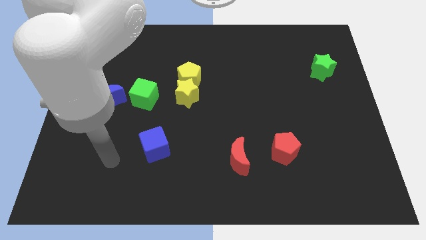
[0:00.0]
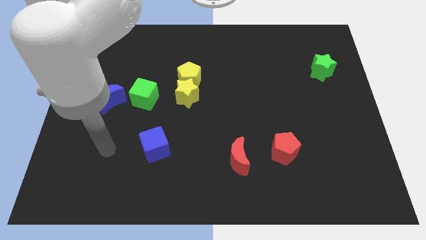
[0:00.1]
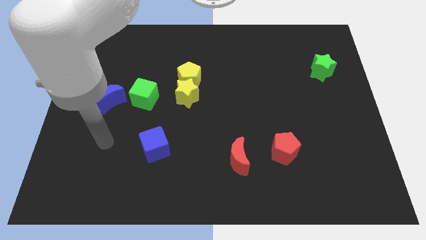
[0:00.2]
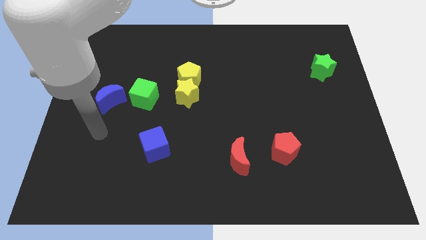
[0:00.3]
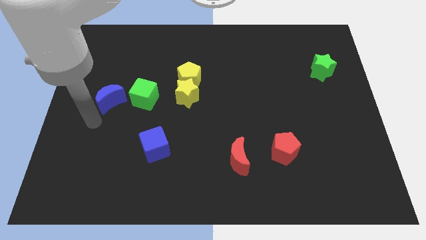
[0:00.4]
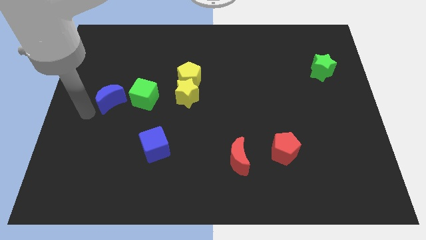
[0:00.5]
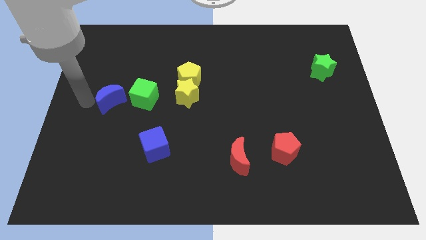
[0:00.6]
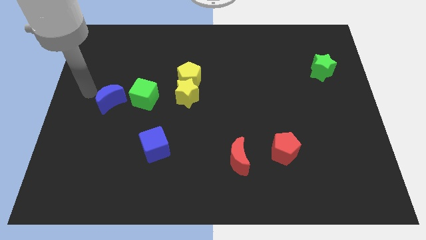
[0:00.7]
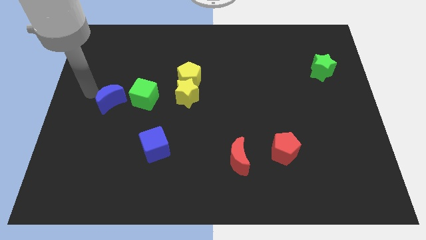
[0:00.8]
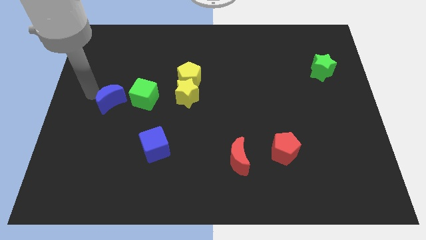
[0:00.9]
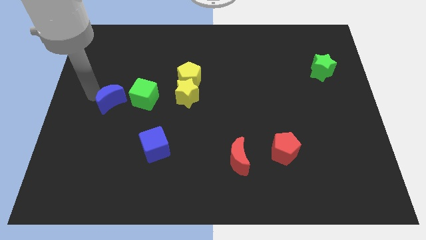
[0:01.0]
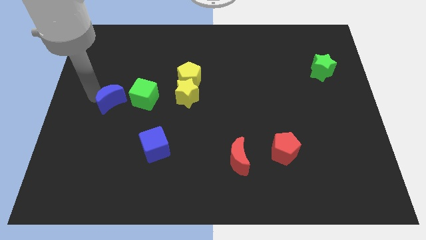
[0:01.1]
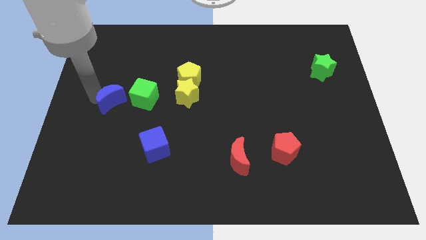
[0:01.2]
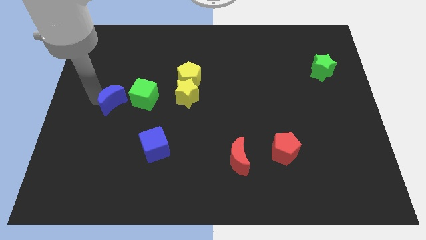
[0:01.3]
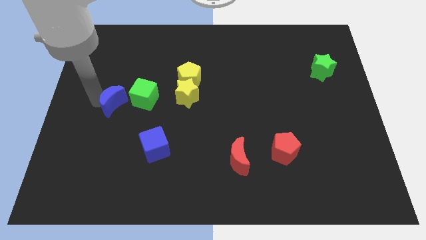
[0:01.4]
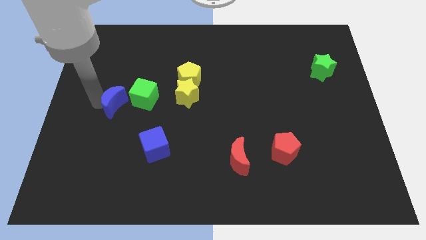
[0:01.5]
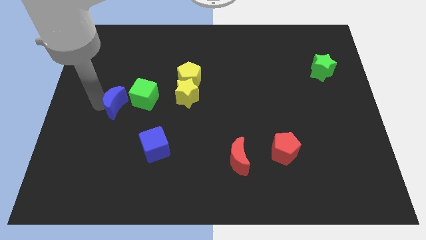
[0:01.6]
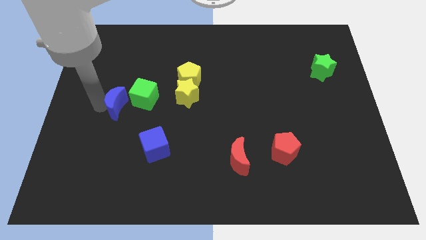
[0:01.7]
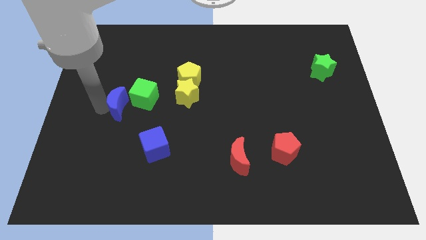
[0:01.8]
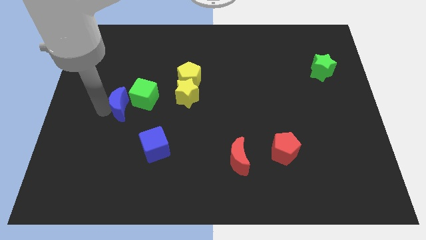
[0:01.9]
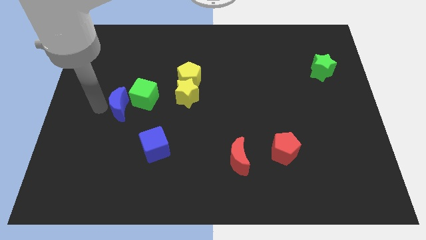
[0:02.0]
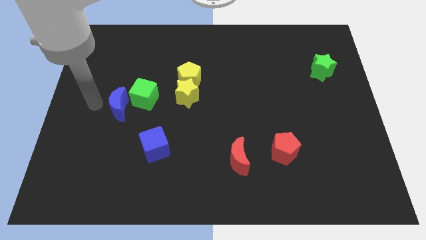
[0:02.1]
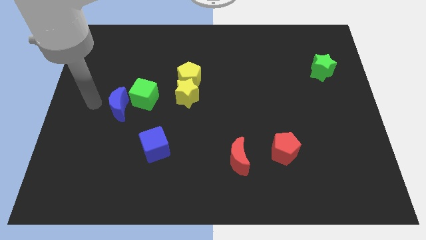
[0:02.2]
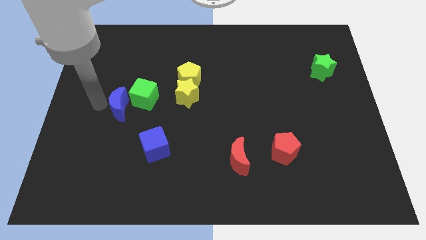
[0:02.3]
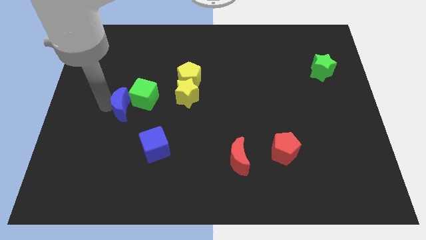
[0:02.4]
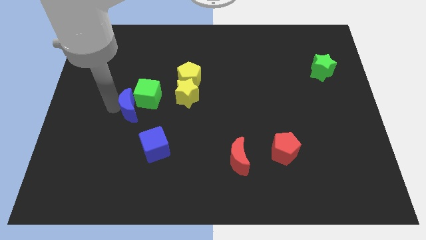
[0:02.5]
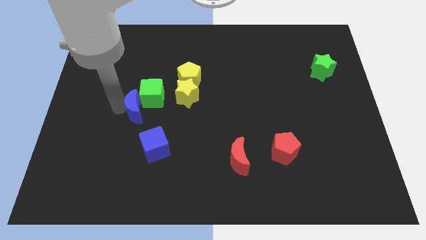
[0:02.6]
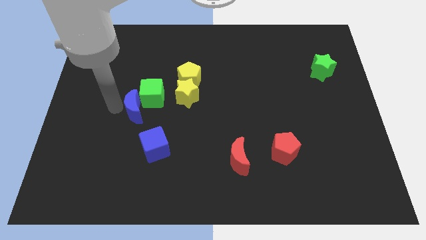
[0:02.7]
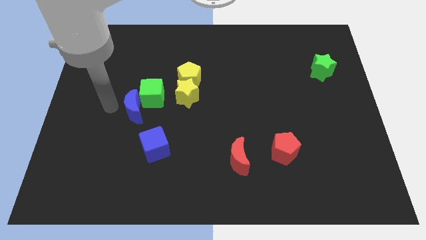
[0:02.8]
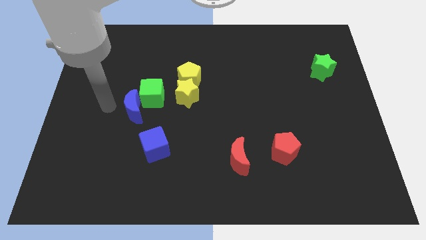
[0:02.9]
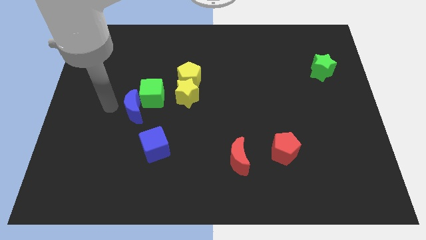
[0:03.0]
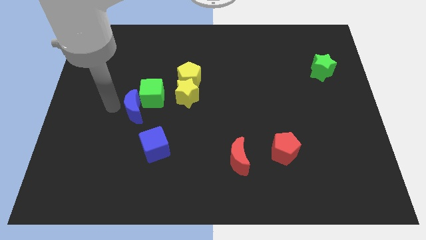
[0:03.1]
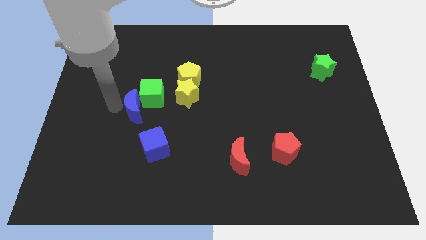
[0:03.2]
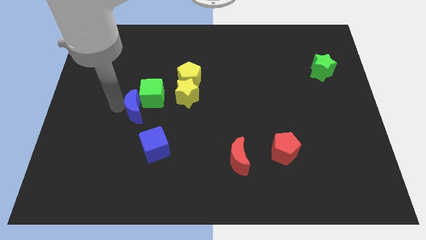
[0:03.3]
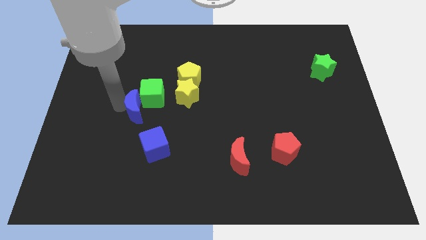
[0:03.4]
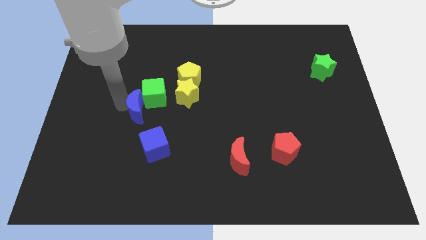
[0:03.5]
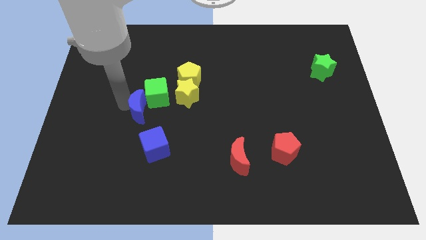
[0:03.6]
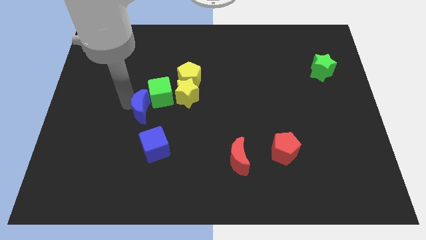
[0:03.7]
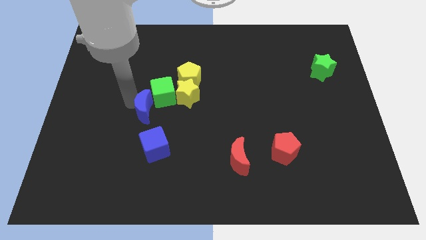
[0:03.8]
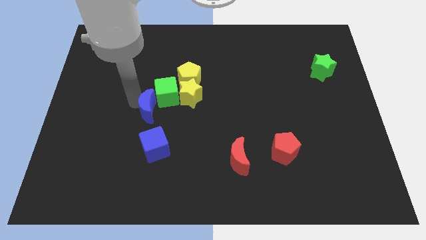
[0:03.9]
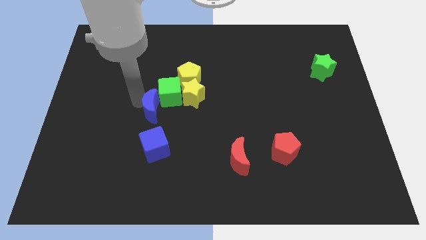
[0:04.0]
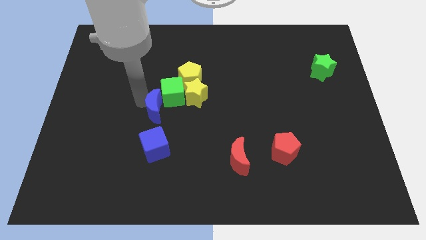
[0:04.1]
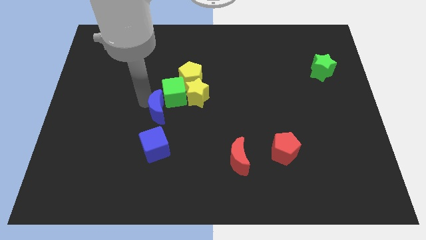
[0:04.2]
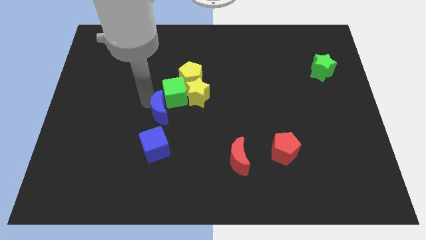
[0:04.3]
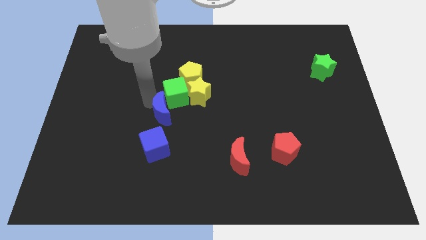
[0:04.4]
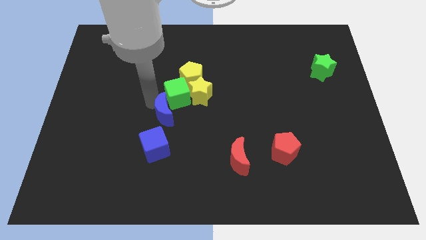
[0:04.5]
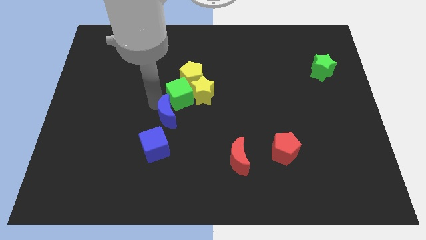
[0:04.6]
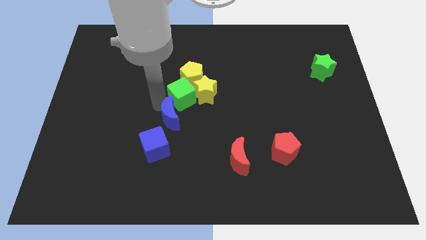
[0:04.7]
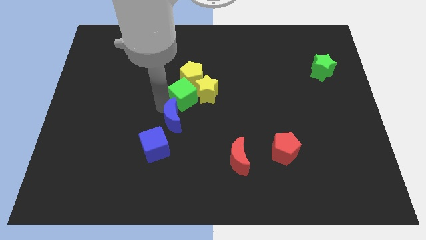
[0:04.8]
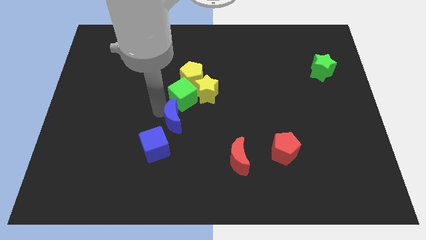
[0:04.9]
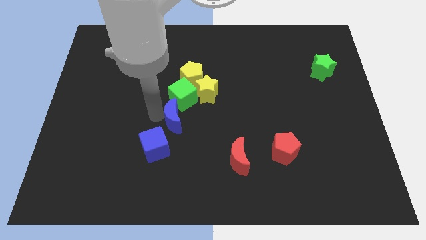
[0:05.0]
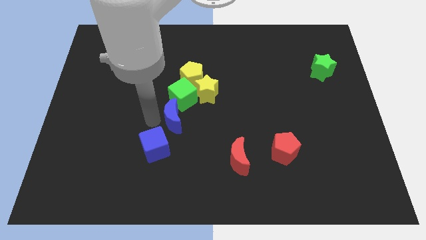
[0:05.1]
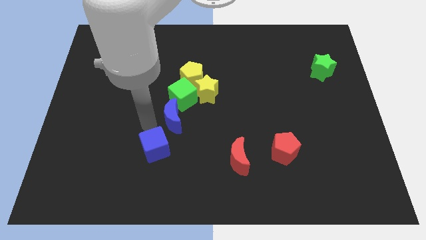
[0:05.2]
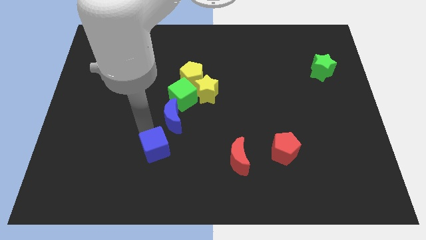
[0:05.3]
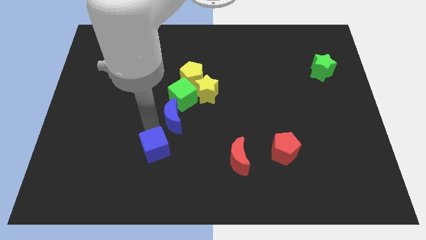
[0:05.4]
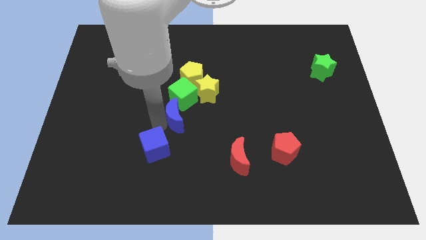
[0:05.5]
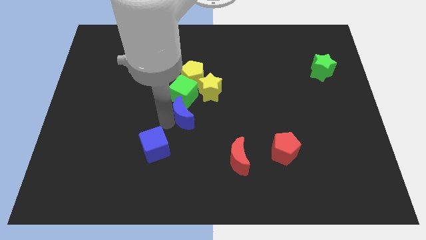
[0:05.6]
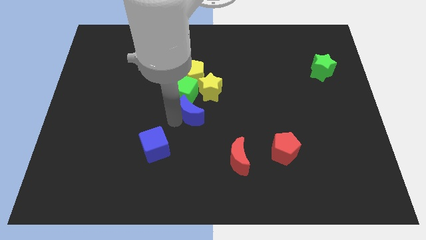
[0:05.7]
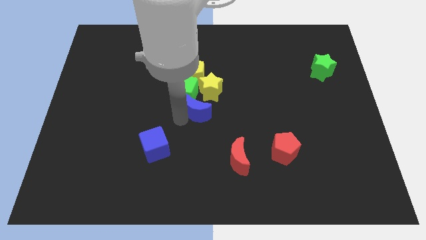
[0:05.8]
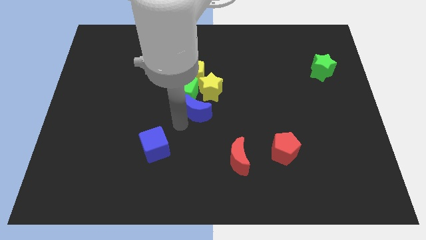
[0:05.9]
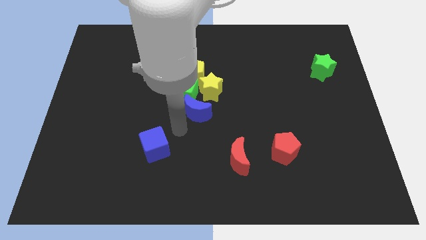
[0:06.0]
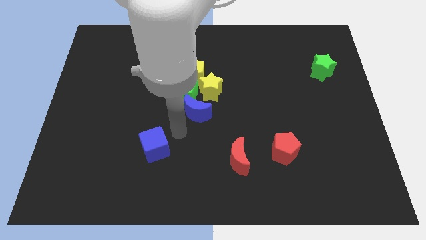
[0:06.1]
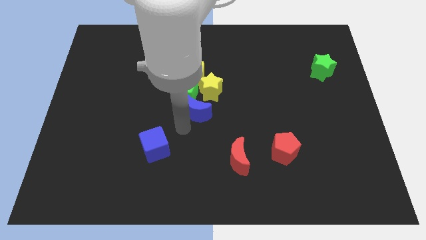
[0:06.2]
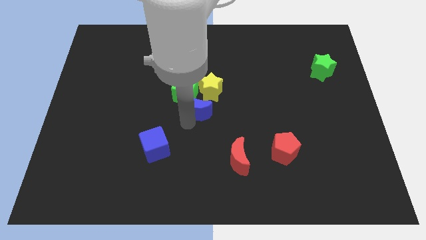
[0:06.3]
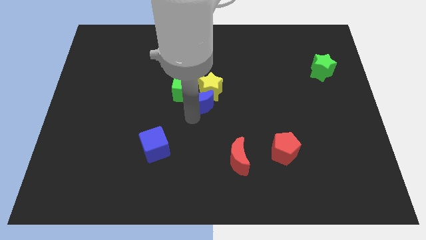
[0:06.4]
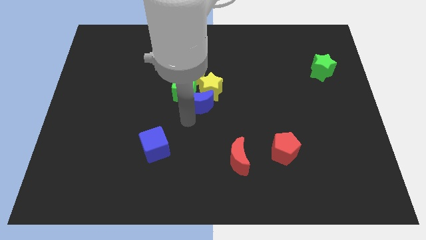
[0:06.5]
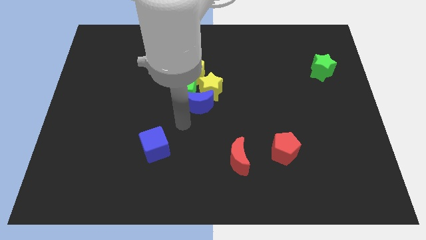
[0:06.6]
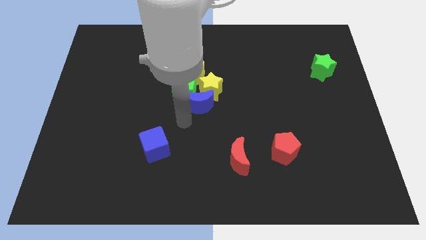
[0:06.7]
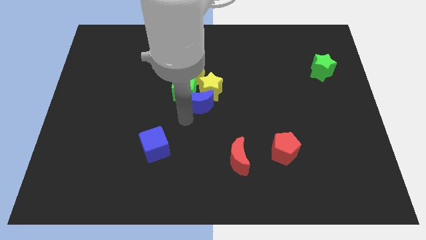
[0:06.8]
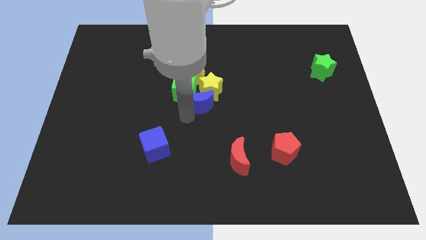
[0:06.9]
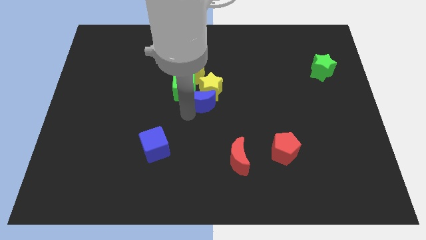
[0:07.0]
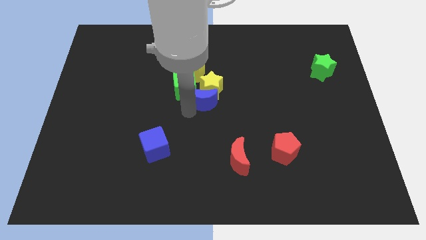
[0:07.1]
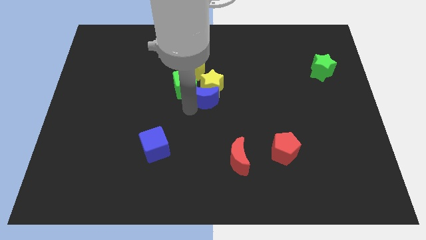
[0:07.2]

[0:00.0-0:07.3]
push the blue moon to the bottom right of the yellow pentagon
